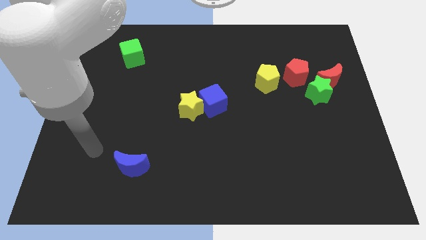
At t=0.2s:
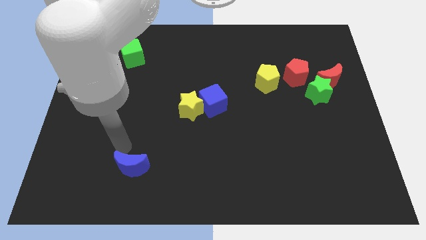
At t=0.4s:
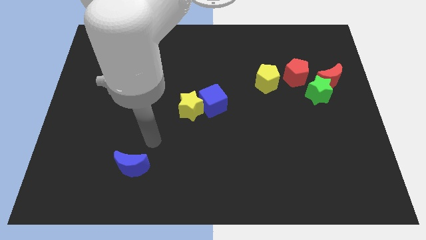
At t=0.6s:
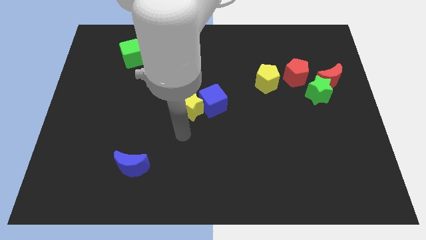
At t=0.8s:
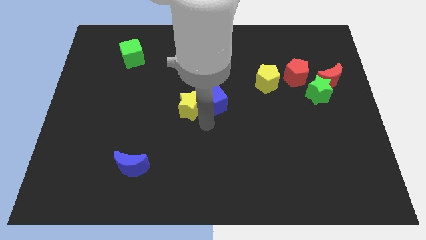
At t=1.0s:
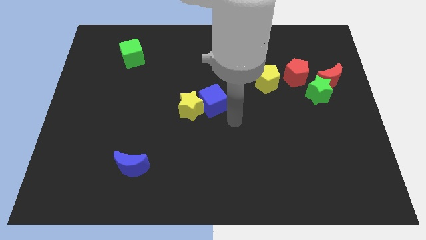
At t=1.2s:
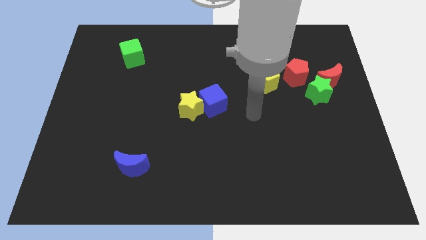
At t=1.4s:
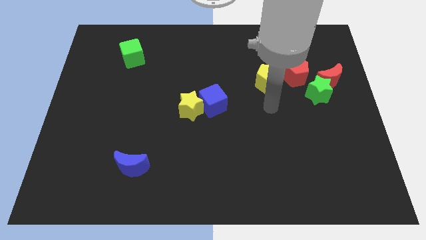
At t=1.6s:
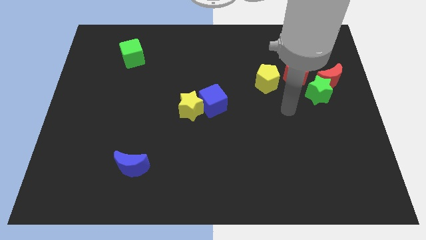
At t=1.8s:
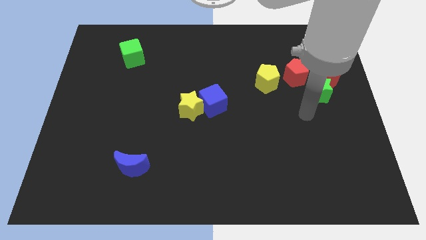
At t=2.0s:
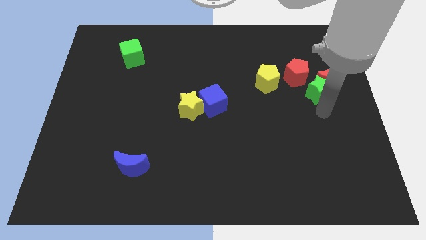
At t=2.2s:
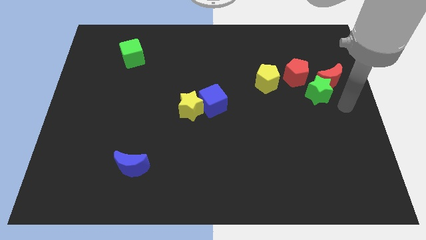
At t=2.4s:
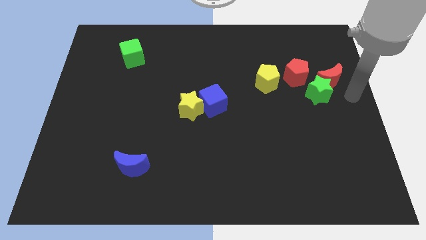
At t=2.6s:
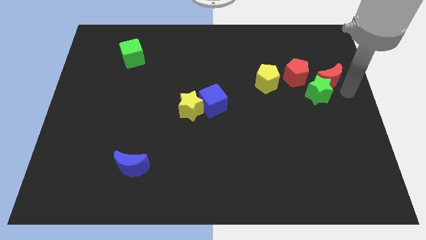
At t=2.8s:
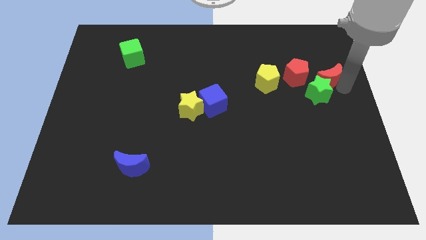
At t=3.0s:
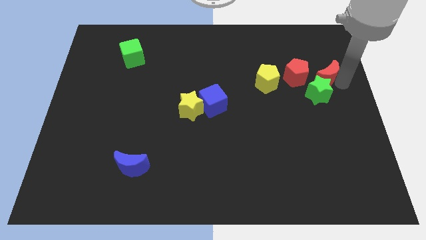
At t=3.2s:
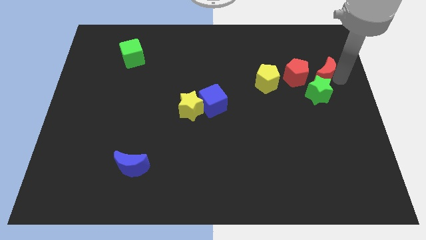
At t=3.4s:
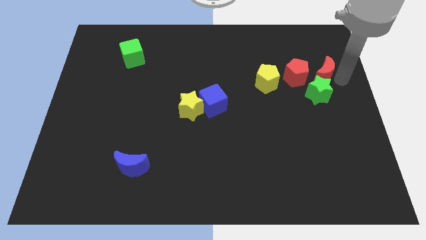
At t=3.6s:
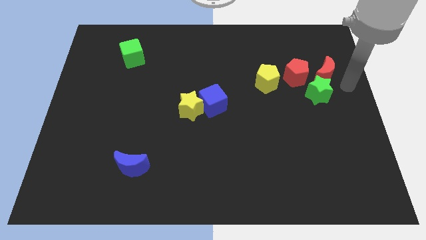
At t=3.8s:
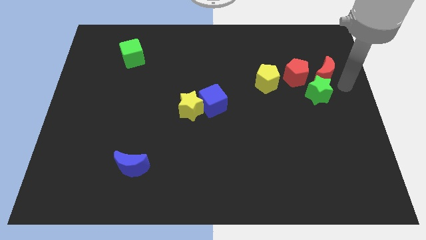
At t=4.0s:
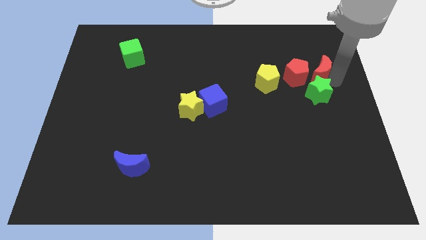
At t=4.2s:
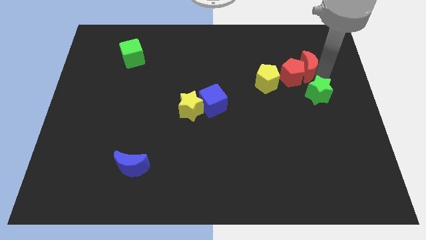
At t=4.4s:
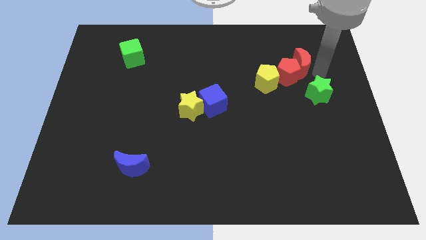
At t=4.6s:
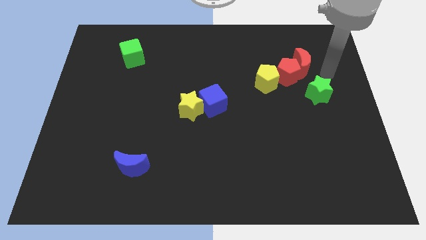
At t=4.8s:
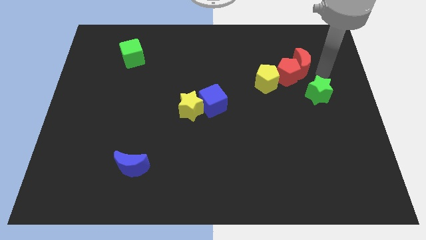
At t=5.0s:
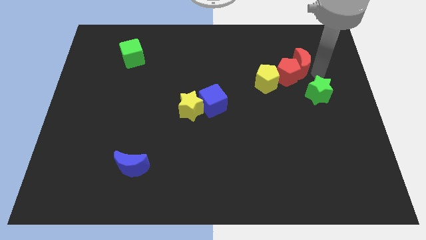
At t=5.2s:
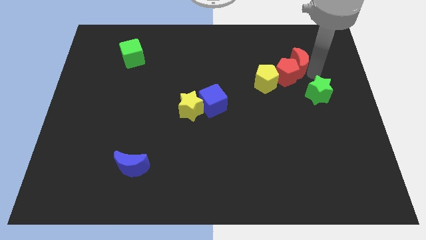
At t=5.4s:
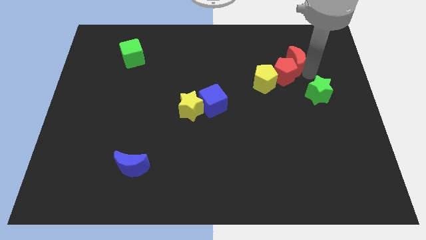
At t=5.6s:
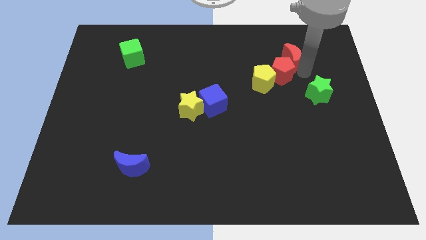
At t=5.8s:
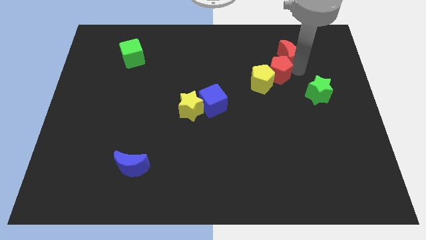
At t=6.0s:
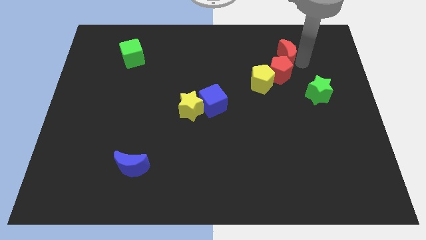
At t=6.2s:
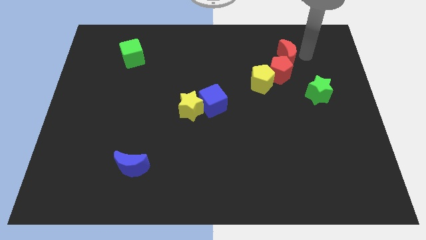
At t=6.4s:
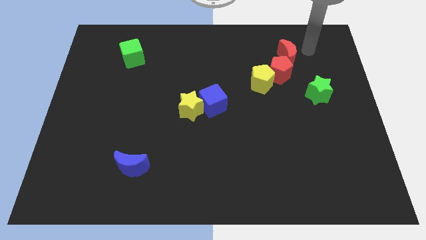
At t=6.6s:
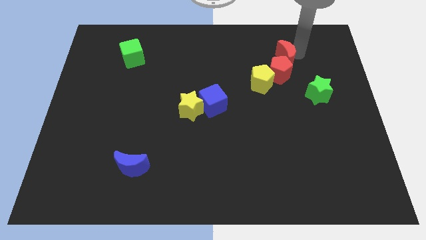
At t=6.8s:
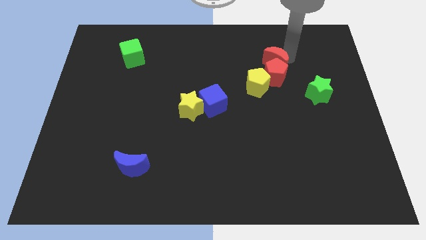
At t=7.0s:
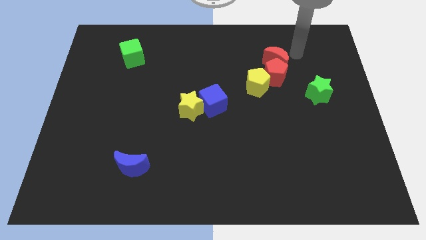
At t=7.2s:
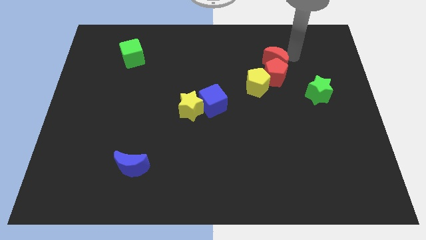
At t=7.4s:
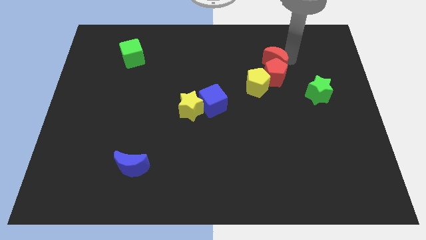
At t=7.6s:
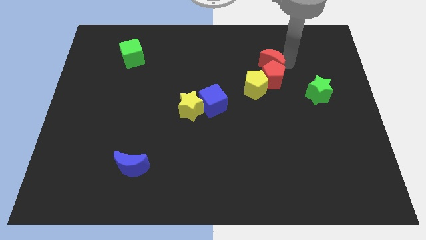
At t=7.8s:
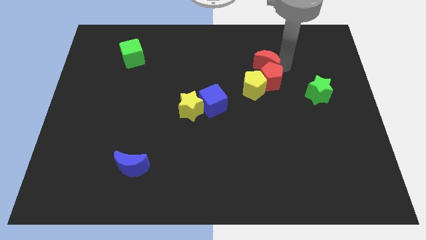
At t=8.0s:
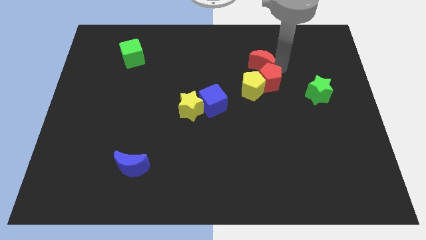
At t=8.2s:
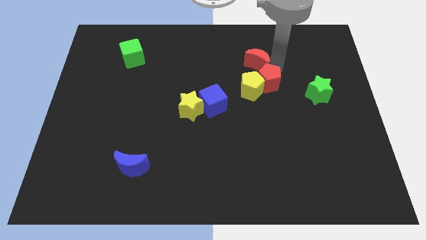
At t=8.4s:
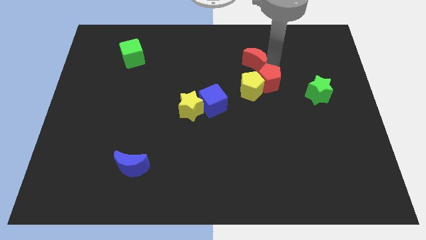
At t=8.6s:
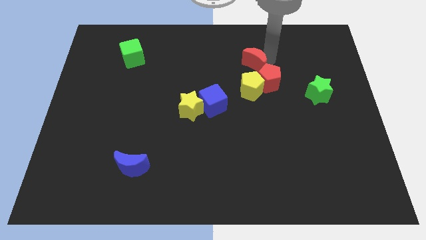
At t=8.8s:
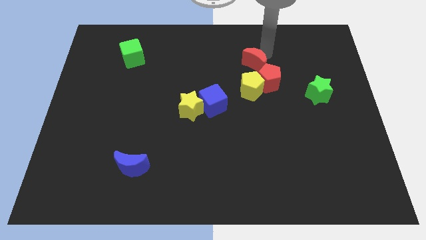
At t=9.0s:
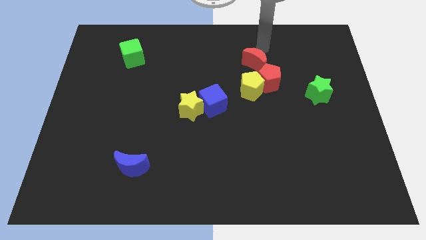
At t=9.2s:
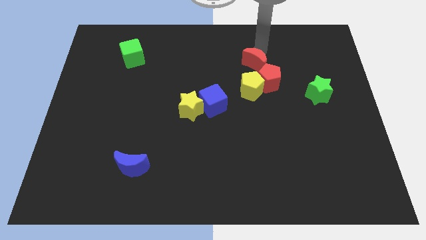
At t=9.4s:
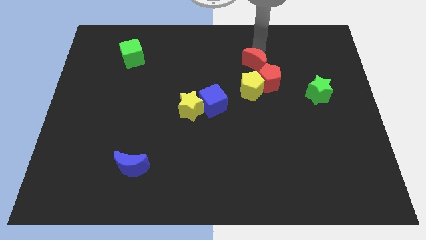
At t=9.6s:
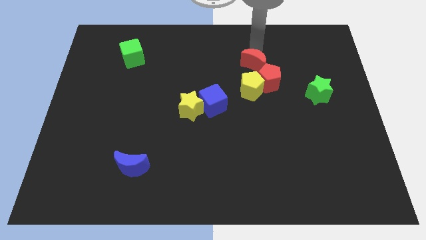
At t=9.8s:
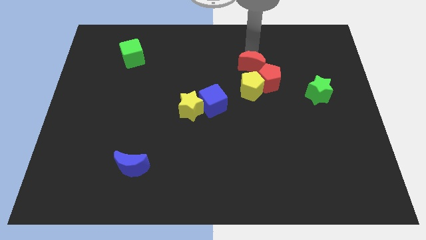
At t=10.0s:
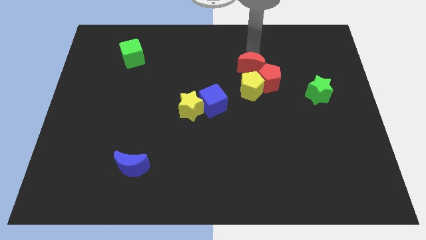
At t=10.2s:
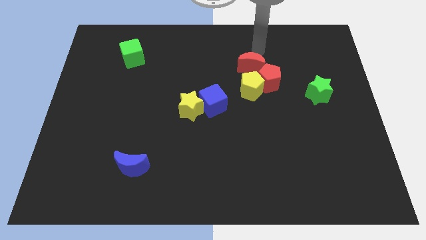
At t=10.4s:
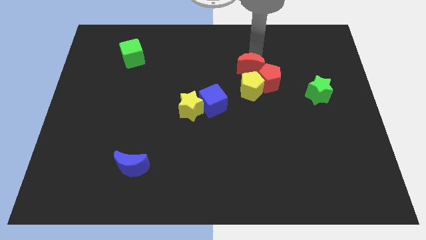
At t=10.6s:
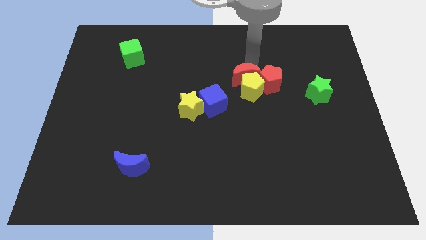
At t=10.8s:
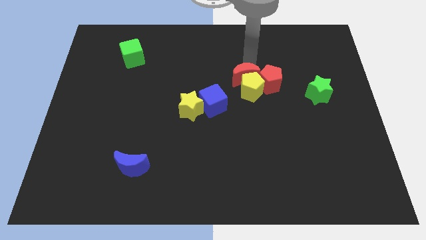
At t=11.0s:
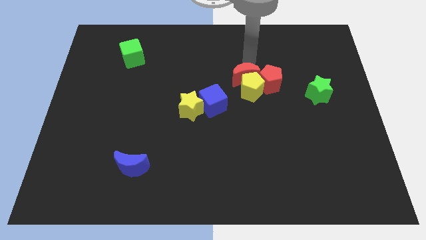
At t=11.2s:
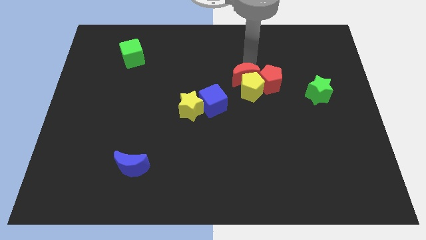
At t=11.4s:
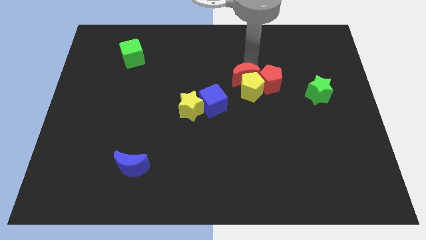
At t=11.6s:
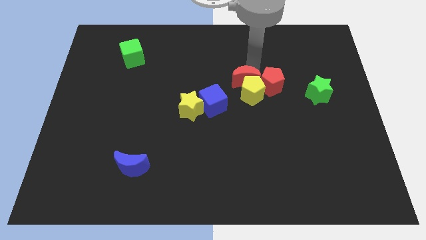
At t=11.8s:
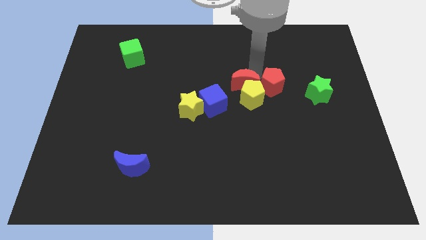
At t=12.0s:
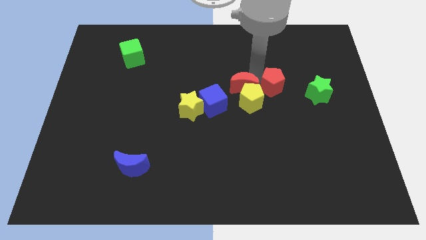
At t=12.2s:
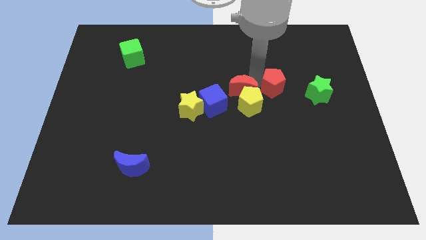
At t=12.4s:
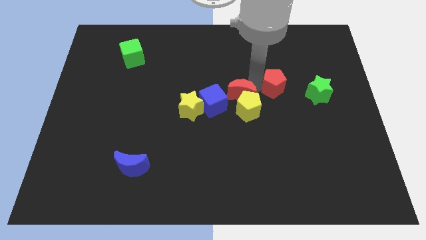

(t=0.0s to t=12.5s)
slide the red moon just right of the yellow star

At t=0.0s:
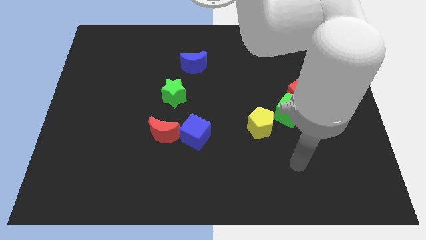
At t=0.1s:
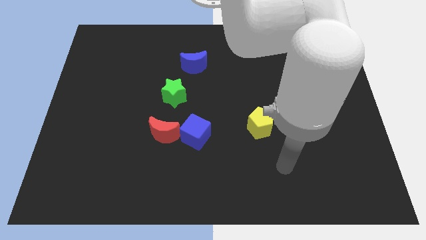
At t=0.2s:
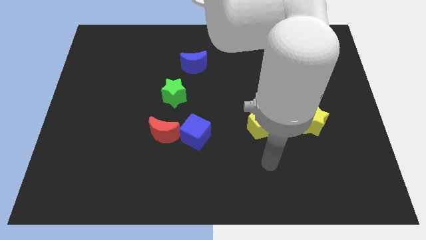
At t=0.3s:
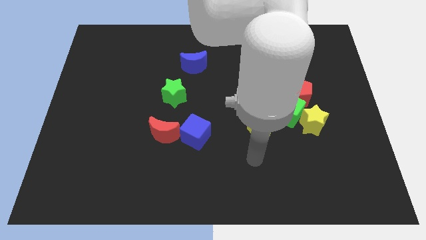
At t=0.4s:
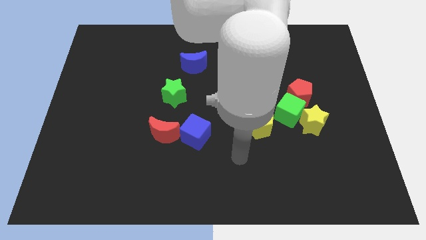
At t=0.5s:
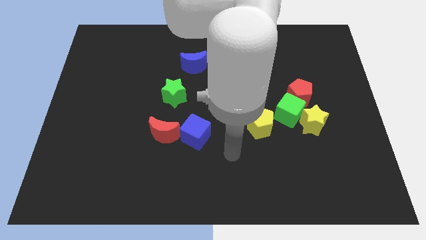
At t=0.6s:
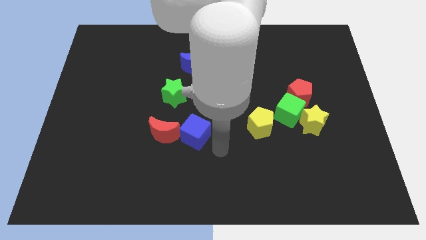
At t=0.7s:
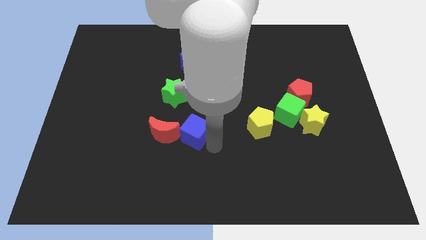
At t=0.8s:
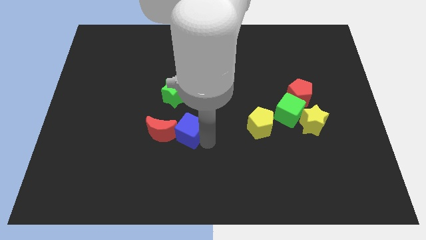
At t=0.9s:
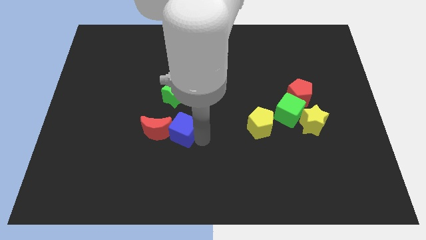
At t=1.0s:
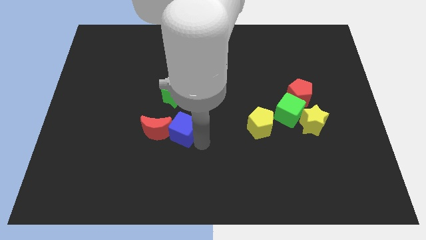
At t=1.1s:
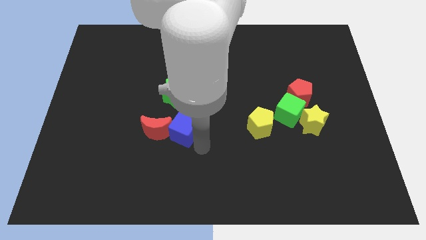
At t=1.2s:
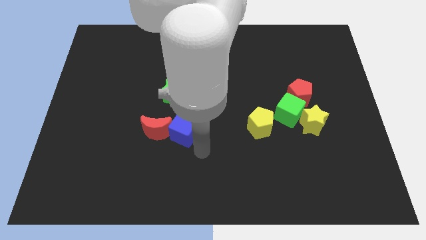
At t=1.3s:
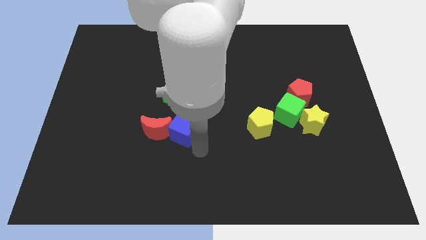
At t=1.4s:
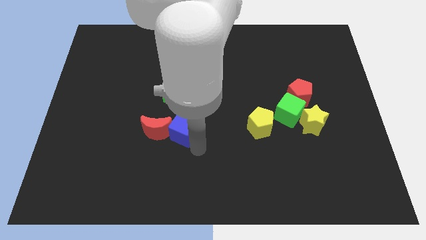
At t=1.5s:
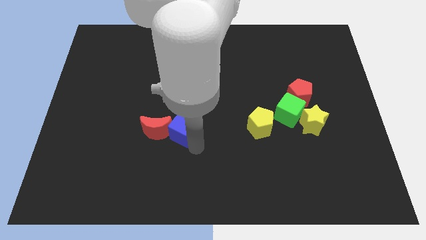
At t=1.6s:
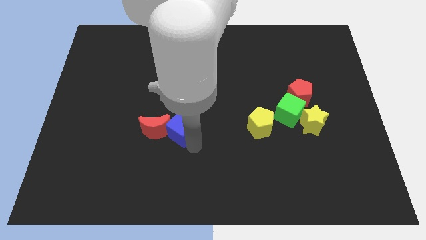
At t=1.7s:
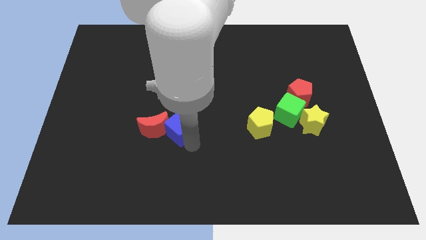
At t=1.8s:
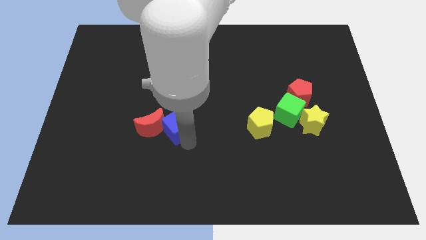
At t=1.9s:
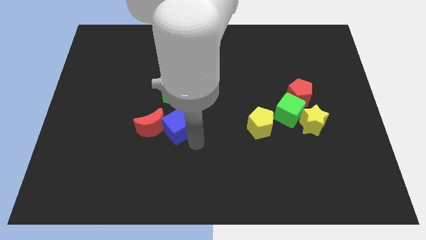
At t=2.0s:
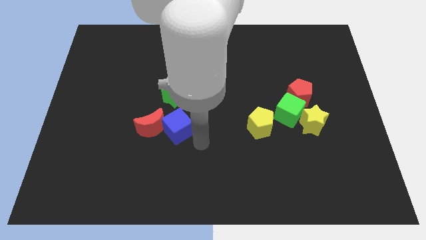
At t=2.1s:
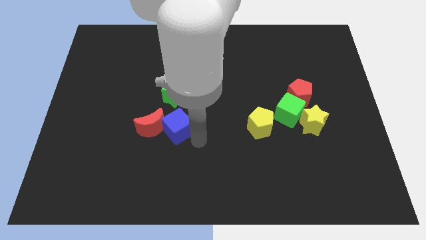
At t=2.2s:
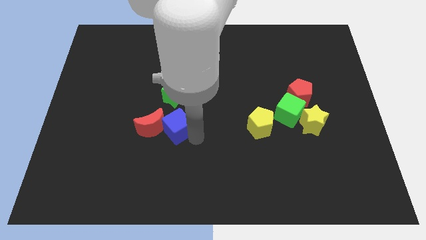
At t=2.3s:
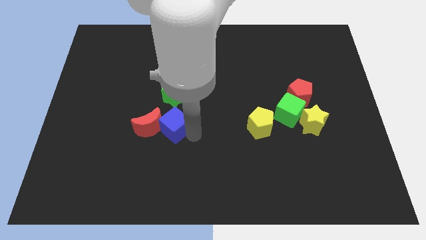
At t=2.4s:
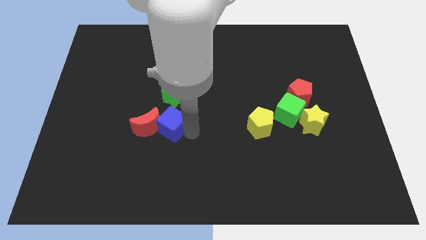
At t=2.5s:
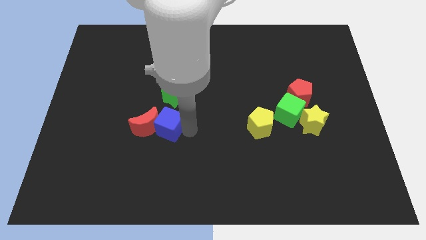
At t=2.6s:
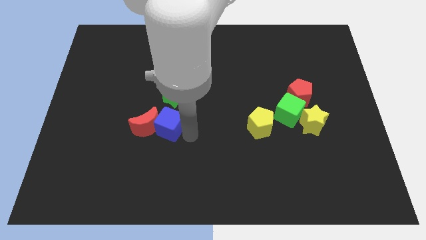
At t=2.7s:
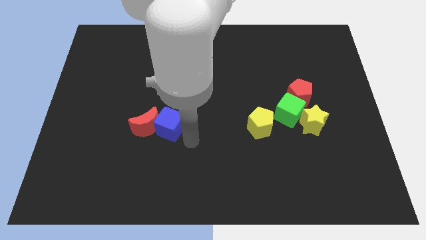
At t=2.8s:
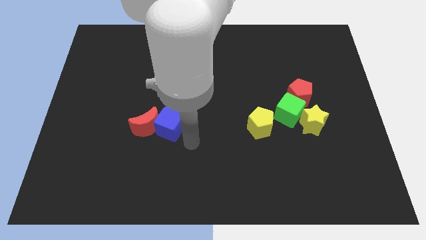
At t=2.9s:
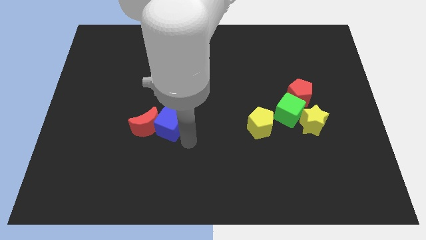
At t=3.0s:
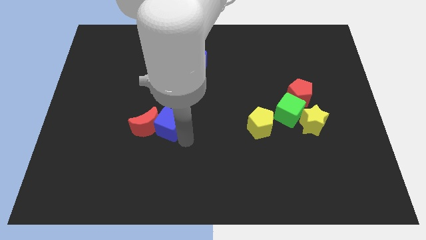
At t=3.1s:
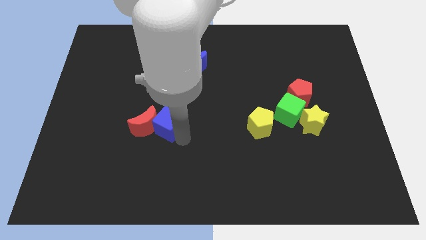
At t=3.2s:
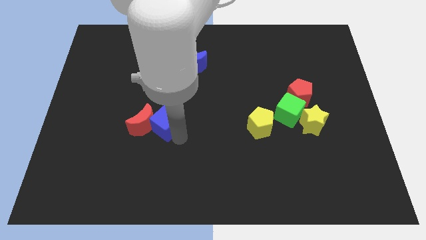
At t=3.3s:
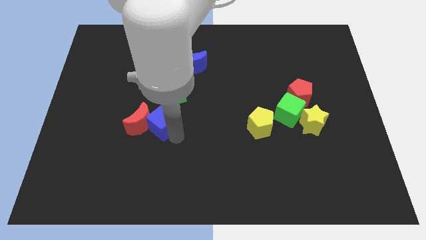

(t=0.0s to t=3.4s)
put the blue cube to the bottom left of the green star
